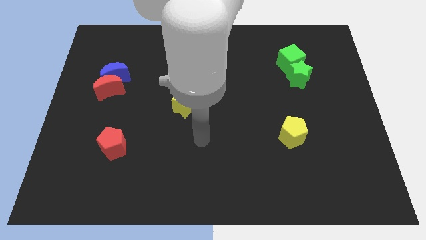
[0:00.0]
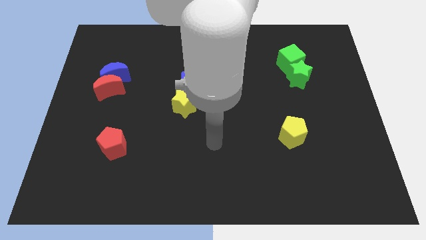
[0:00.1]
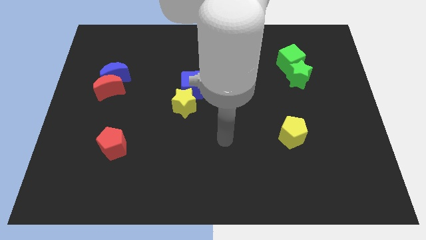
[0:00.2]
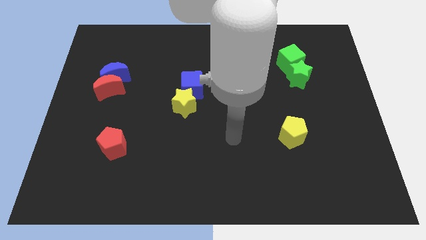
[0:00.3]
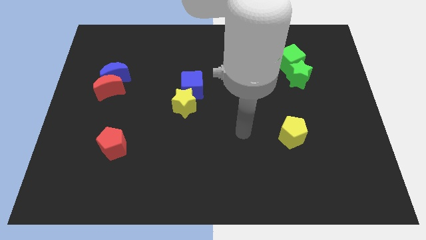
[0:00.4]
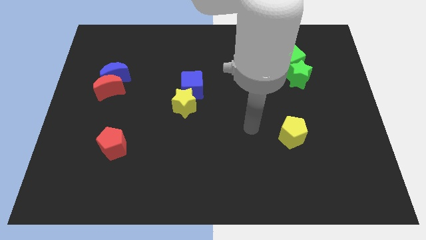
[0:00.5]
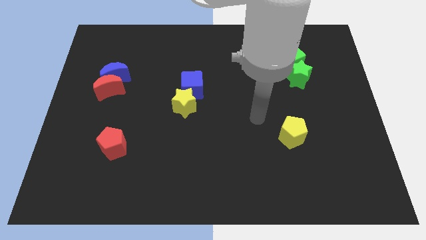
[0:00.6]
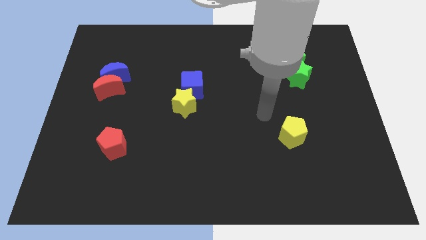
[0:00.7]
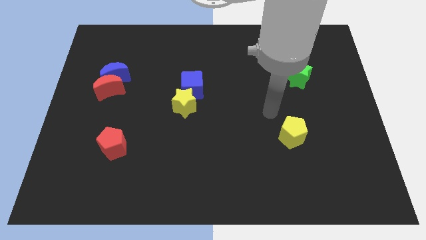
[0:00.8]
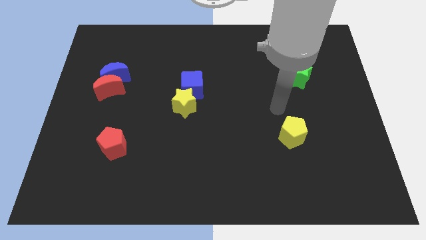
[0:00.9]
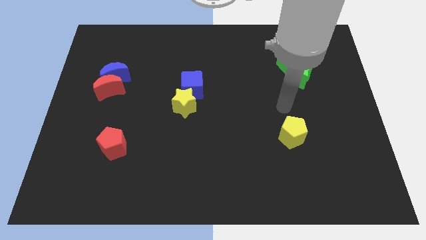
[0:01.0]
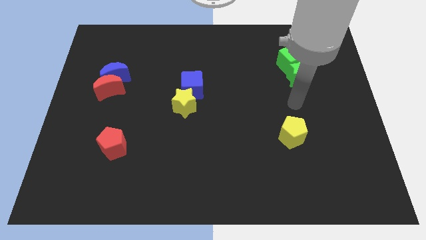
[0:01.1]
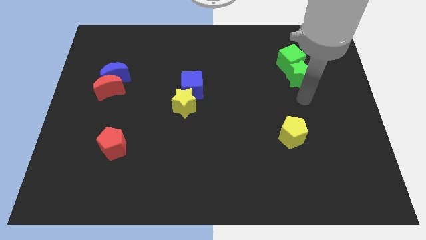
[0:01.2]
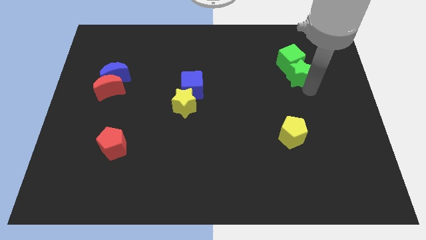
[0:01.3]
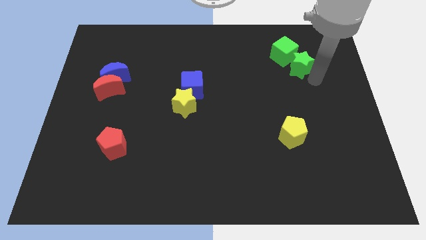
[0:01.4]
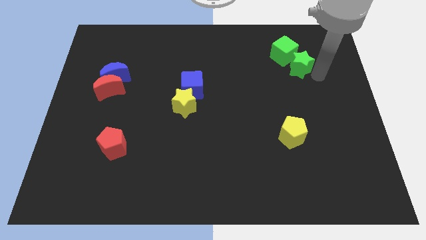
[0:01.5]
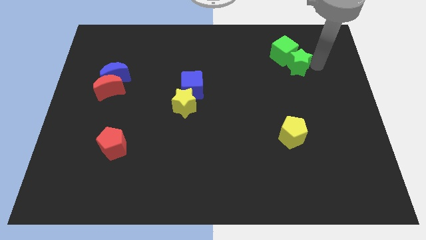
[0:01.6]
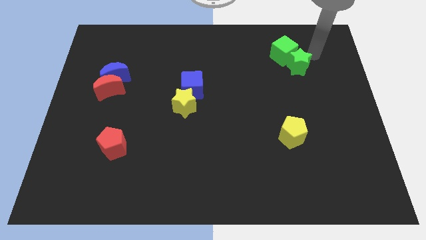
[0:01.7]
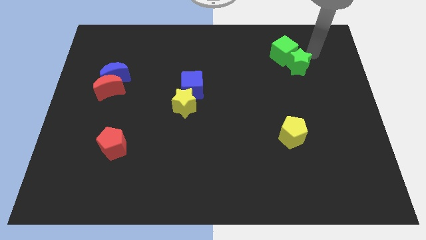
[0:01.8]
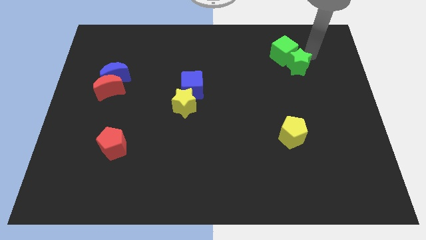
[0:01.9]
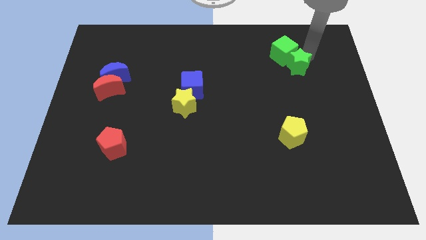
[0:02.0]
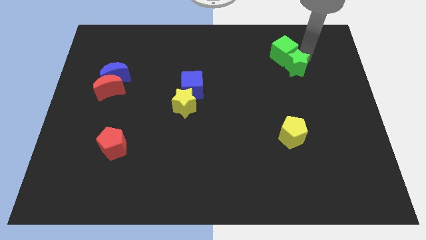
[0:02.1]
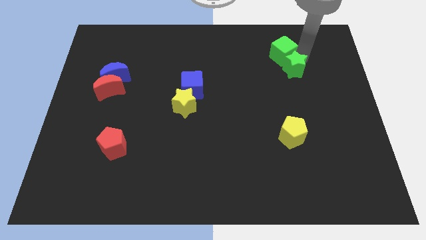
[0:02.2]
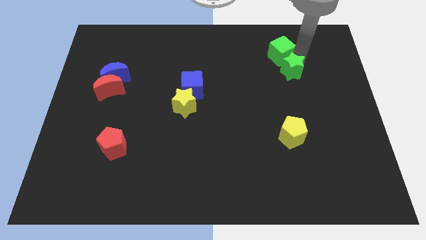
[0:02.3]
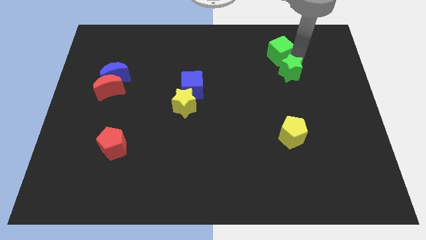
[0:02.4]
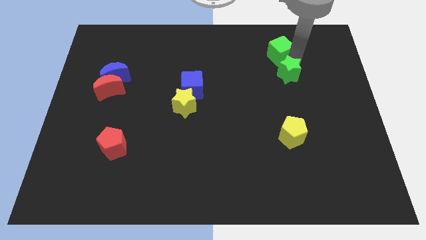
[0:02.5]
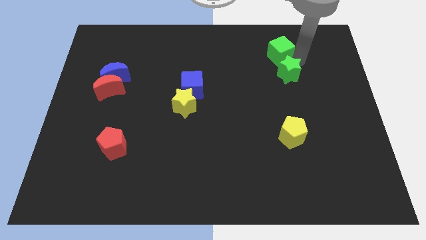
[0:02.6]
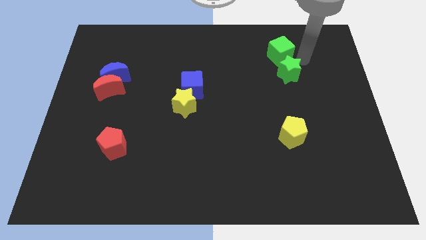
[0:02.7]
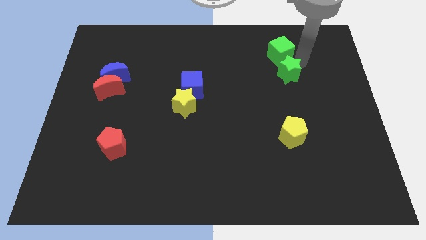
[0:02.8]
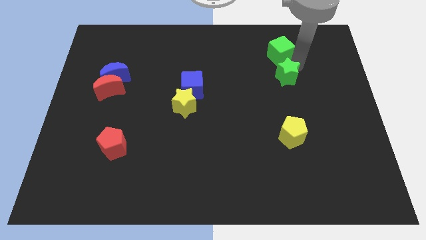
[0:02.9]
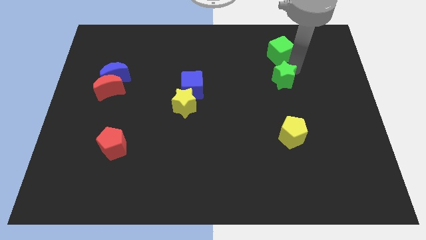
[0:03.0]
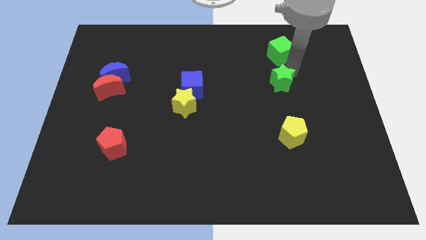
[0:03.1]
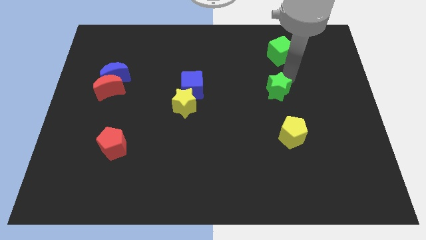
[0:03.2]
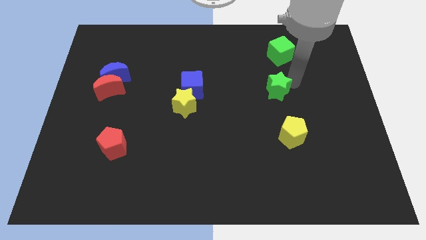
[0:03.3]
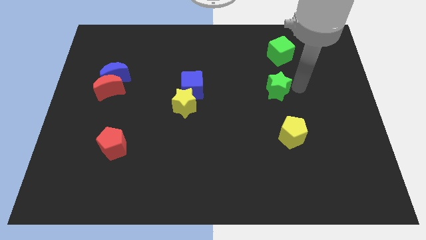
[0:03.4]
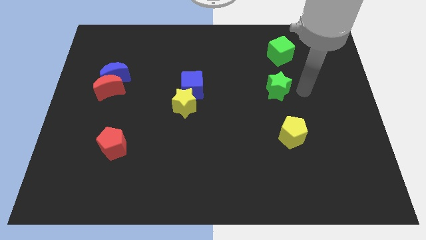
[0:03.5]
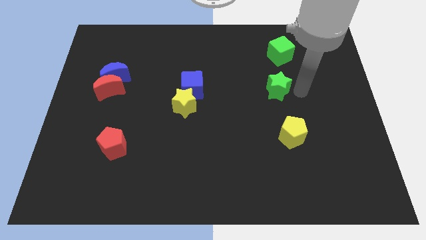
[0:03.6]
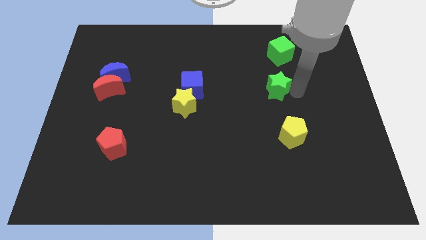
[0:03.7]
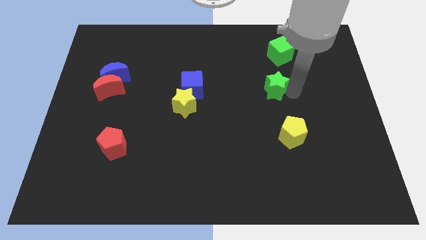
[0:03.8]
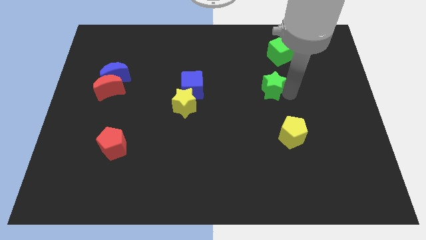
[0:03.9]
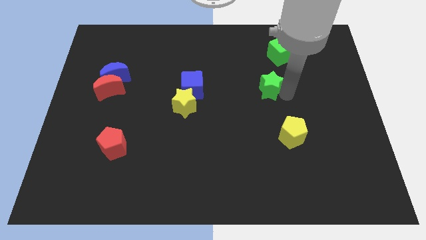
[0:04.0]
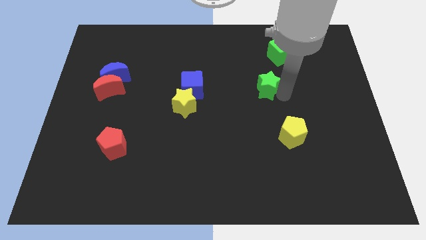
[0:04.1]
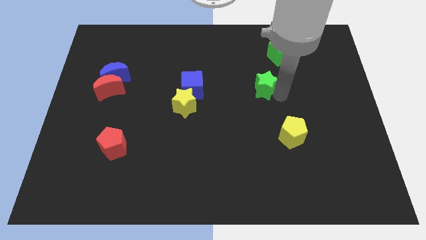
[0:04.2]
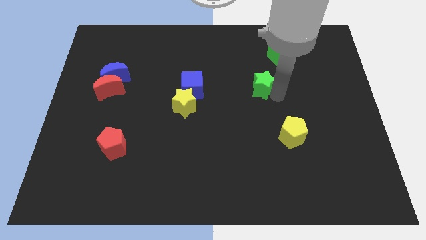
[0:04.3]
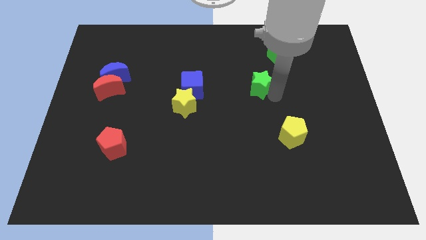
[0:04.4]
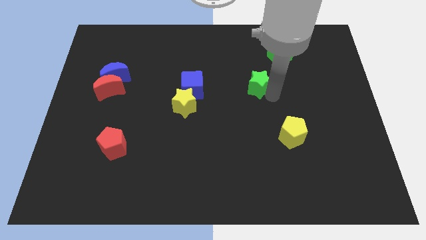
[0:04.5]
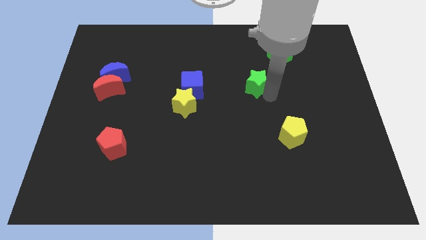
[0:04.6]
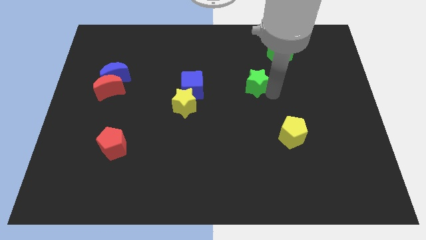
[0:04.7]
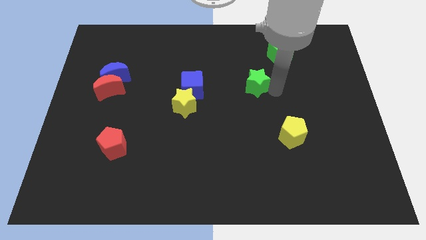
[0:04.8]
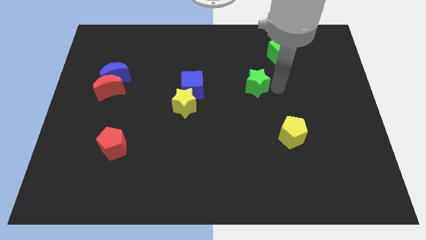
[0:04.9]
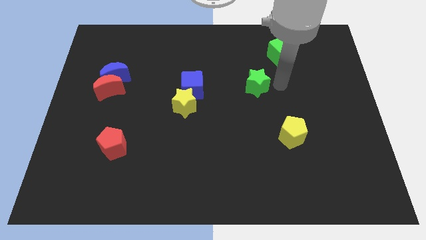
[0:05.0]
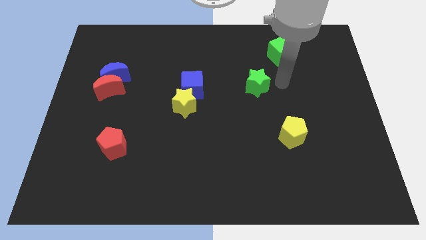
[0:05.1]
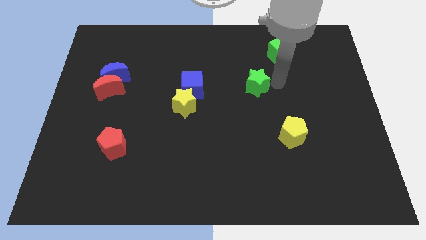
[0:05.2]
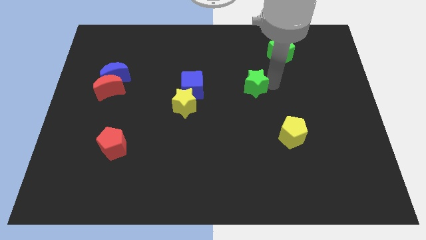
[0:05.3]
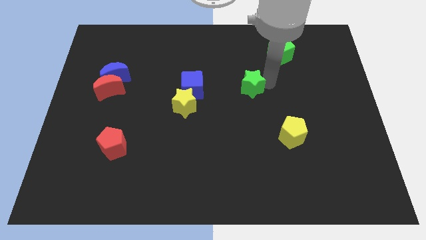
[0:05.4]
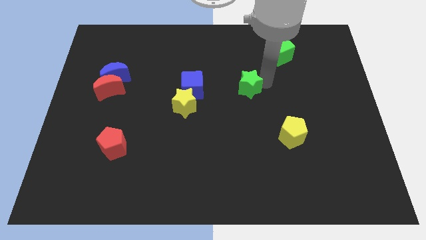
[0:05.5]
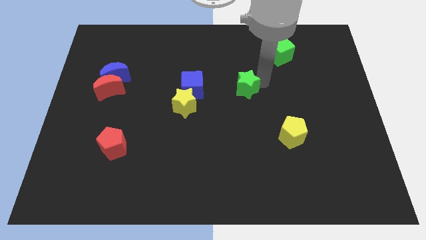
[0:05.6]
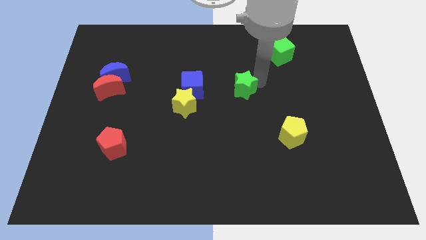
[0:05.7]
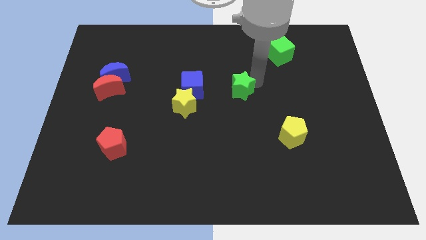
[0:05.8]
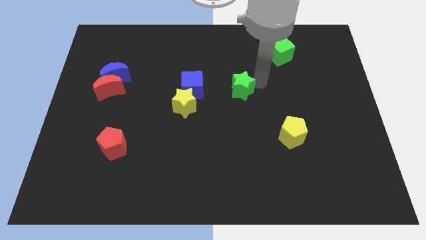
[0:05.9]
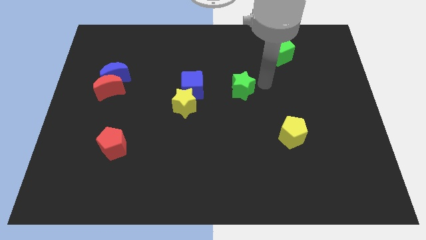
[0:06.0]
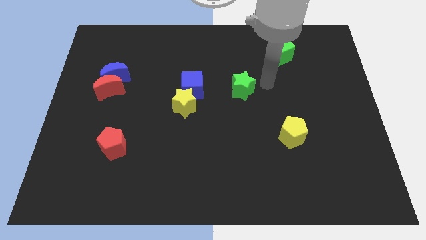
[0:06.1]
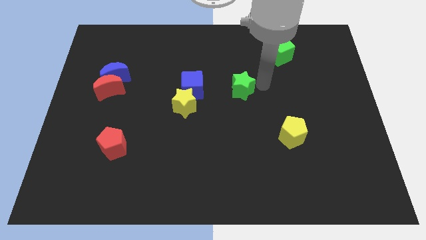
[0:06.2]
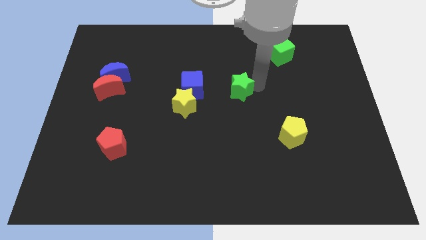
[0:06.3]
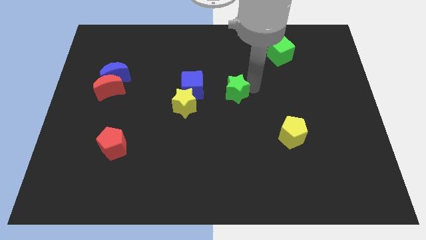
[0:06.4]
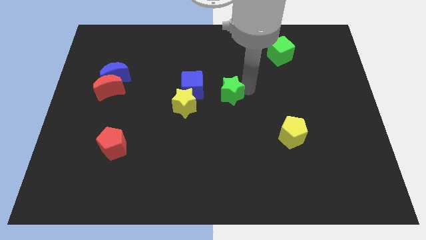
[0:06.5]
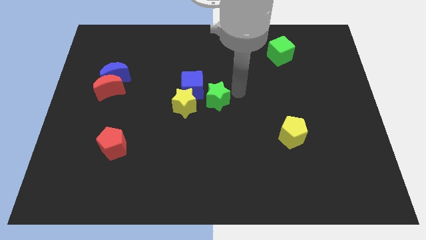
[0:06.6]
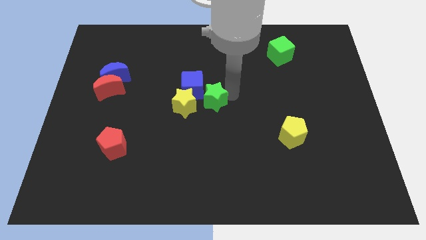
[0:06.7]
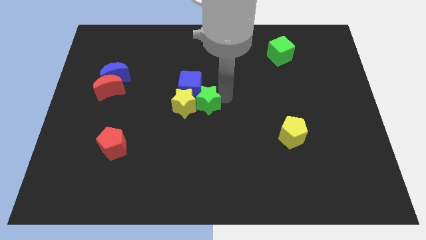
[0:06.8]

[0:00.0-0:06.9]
move the green star to the yellow star

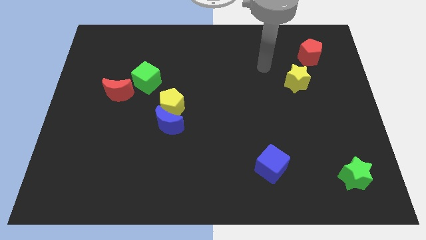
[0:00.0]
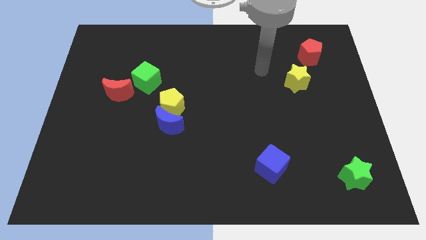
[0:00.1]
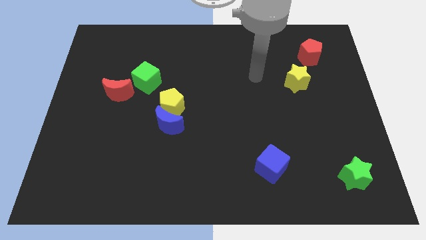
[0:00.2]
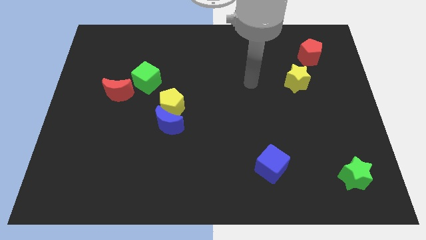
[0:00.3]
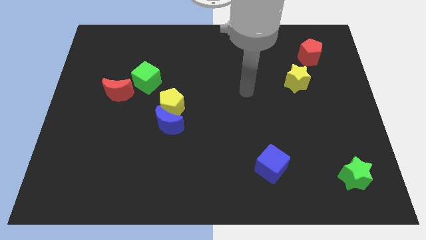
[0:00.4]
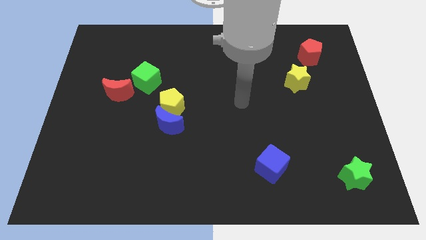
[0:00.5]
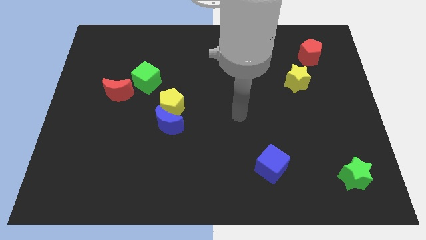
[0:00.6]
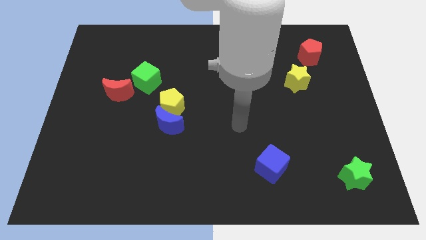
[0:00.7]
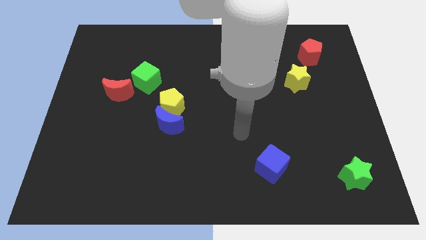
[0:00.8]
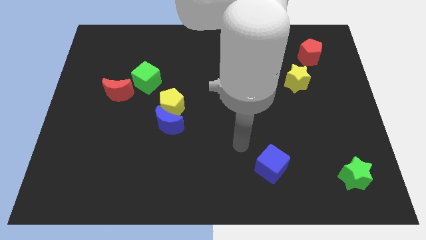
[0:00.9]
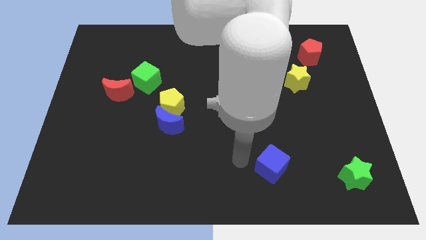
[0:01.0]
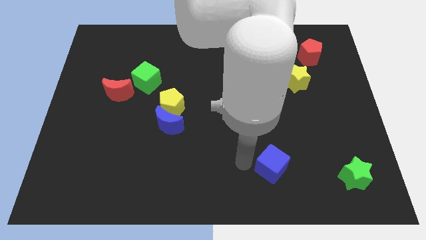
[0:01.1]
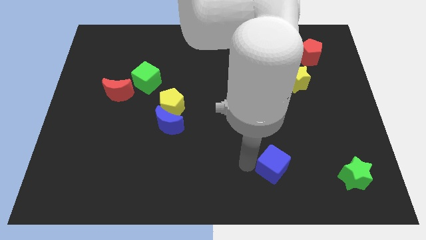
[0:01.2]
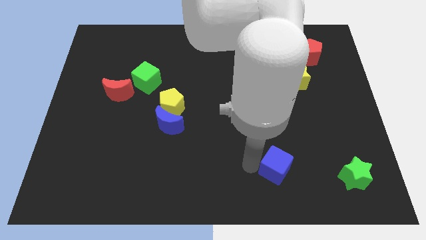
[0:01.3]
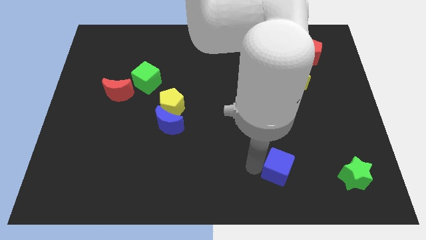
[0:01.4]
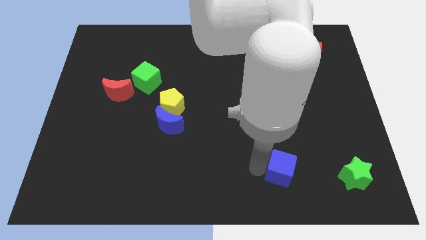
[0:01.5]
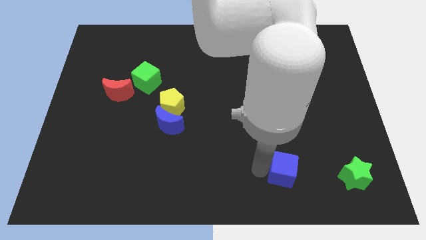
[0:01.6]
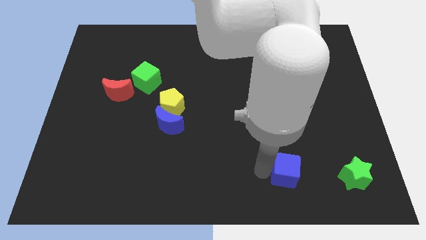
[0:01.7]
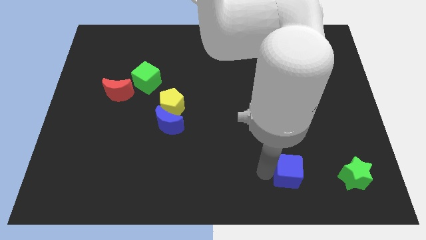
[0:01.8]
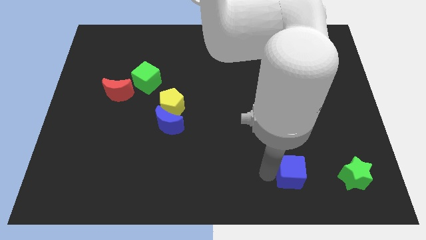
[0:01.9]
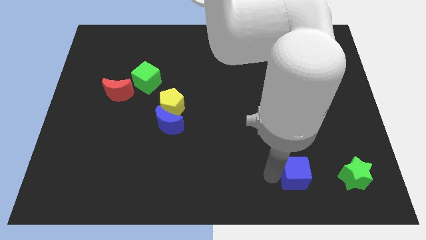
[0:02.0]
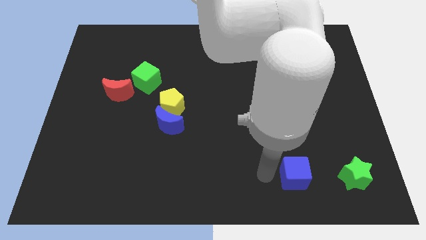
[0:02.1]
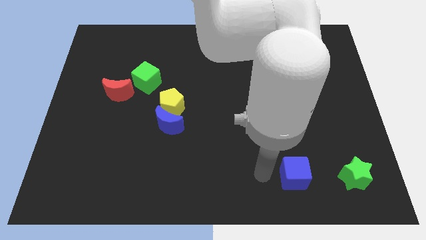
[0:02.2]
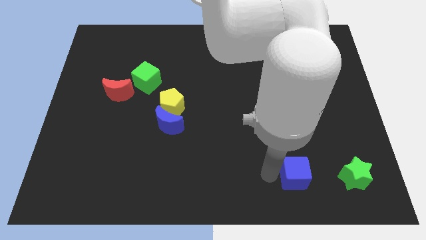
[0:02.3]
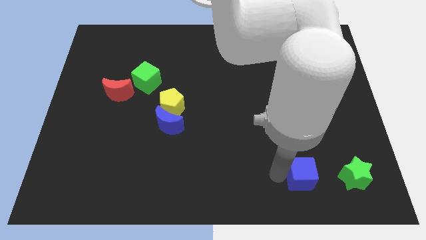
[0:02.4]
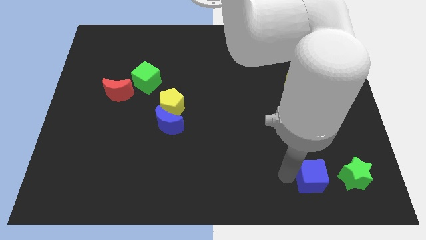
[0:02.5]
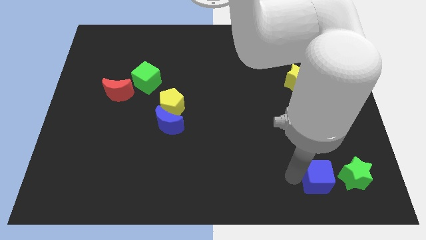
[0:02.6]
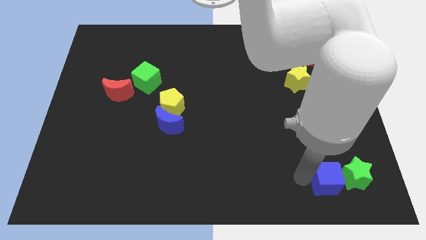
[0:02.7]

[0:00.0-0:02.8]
slide the blue cube towards the green star
